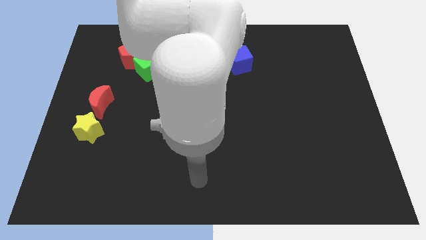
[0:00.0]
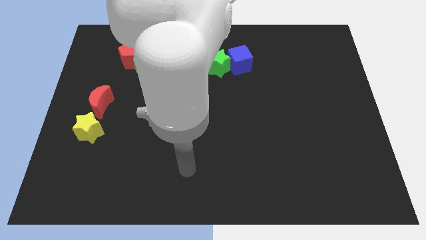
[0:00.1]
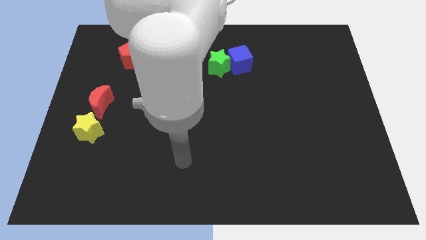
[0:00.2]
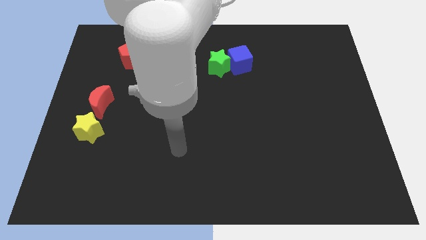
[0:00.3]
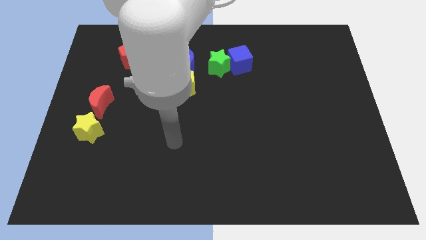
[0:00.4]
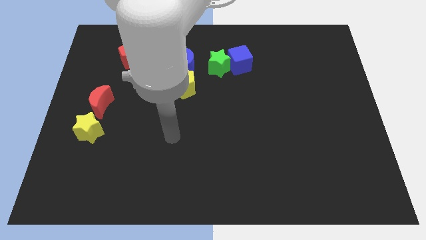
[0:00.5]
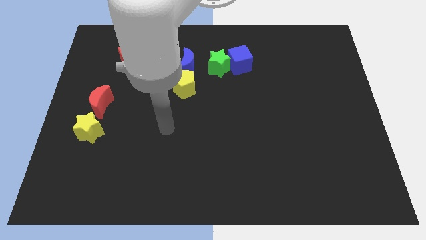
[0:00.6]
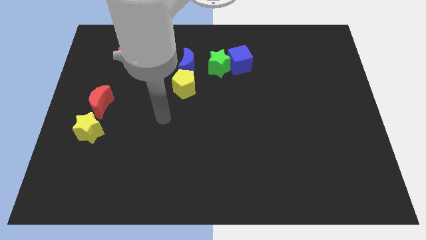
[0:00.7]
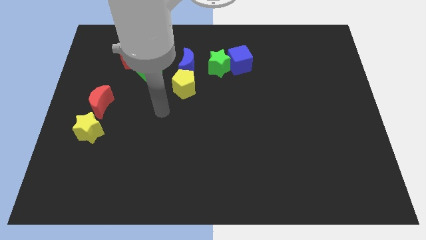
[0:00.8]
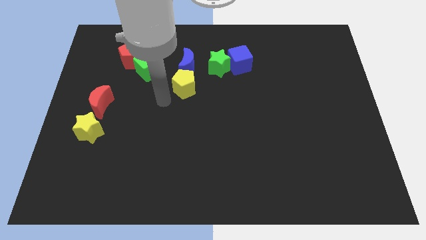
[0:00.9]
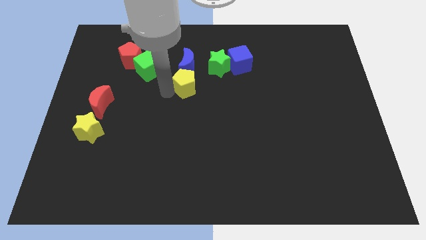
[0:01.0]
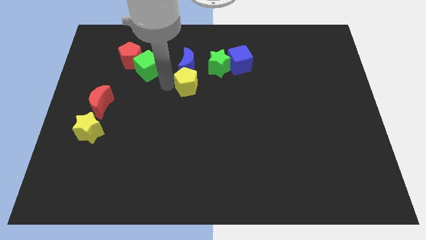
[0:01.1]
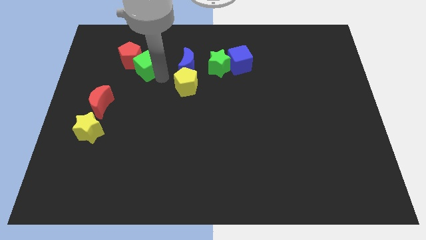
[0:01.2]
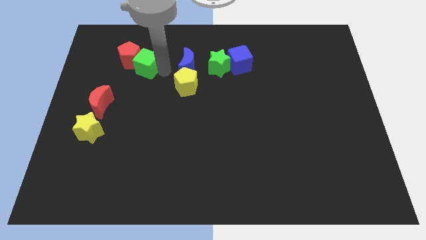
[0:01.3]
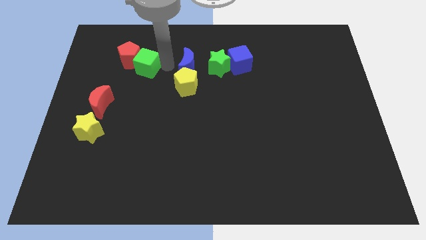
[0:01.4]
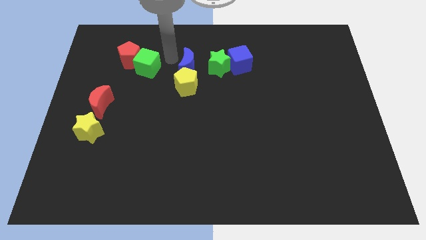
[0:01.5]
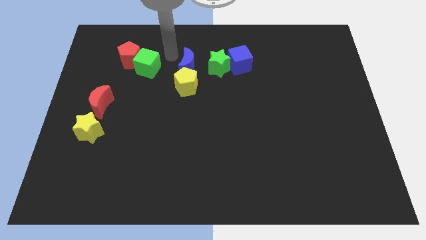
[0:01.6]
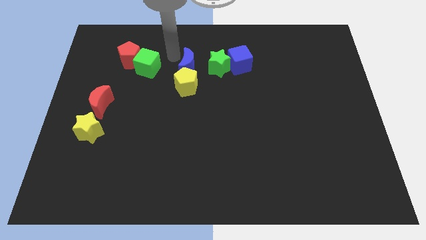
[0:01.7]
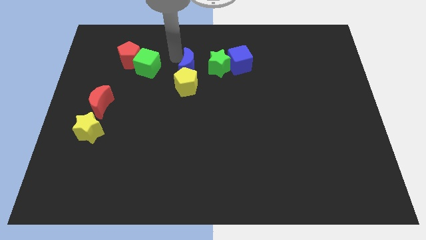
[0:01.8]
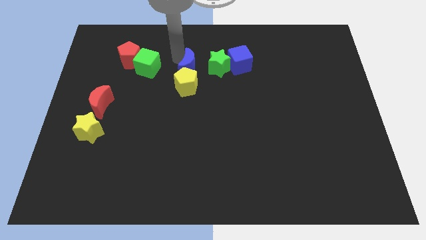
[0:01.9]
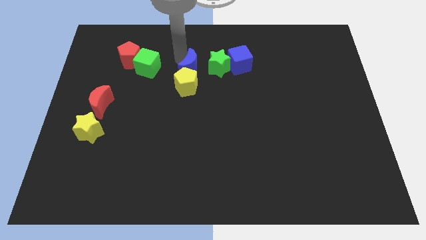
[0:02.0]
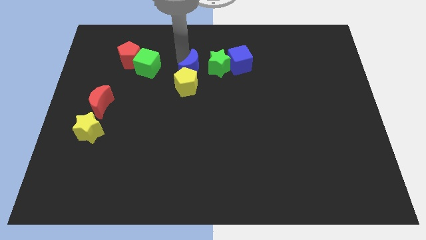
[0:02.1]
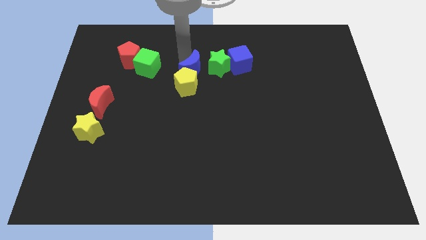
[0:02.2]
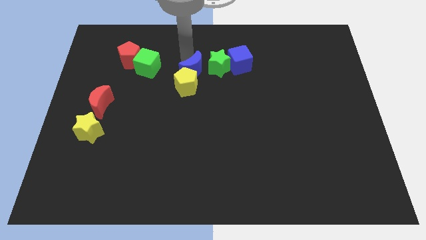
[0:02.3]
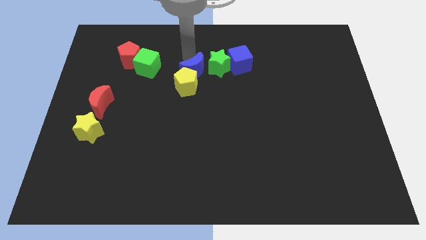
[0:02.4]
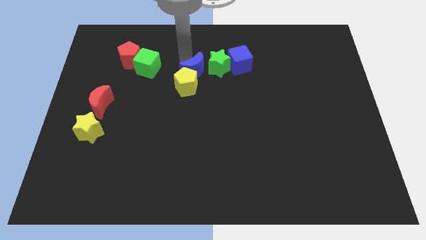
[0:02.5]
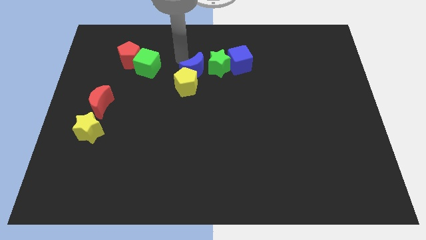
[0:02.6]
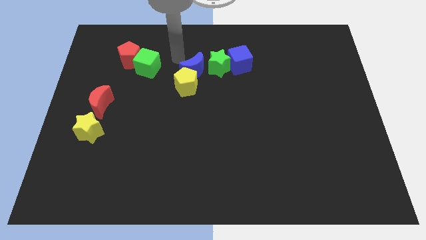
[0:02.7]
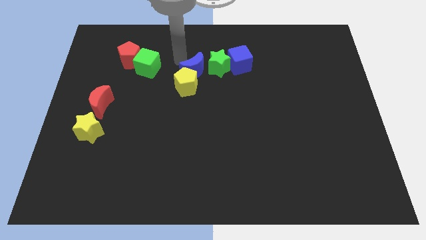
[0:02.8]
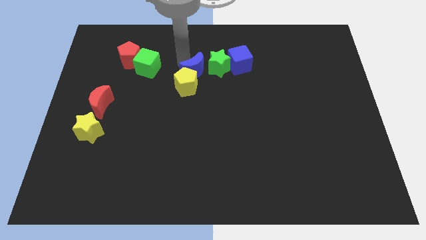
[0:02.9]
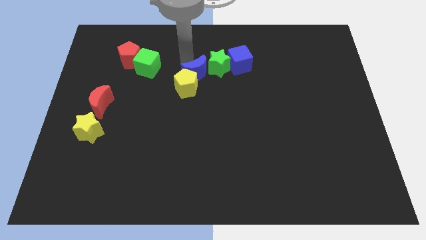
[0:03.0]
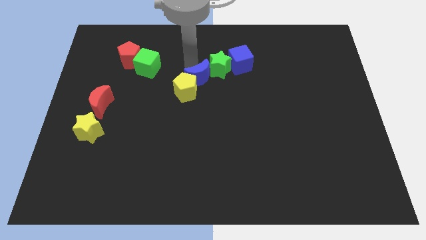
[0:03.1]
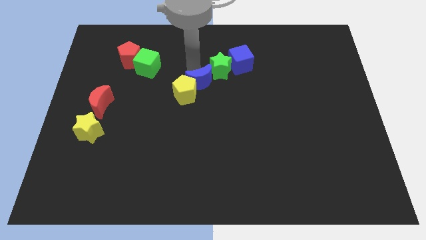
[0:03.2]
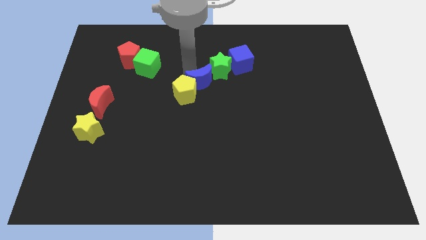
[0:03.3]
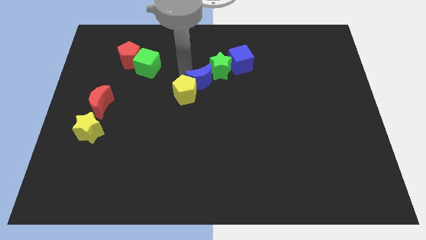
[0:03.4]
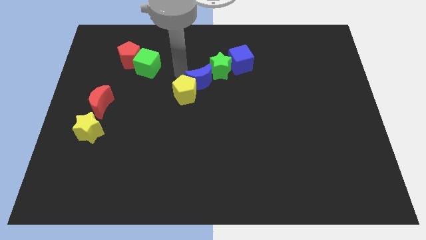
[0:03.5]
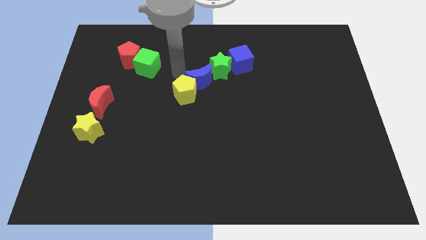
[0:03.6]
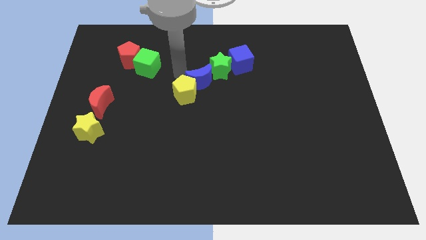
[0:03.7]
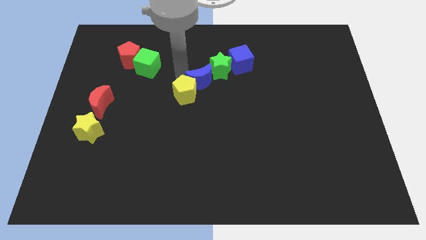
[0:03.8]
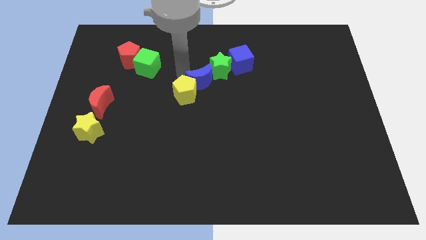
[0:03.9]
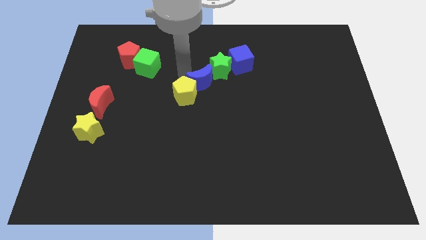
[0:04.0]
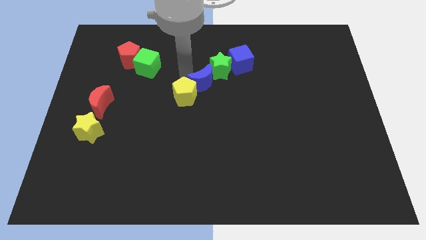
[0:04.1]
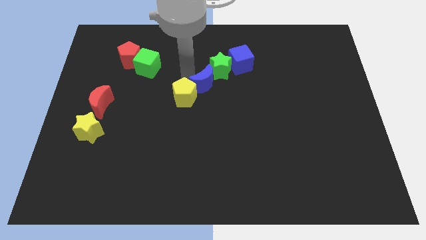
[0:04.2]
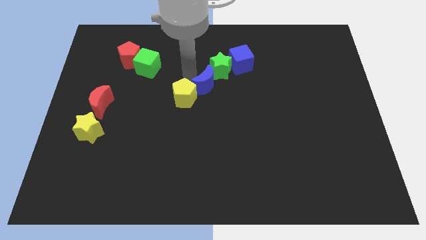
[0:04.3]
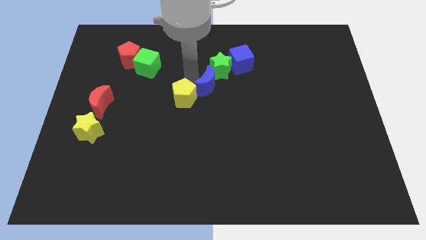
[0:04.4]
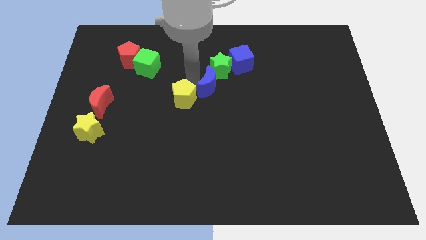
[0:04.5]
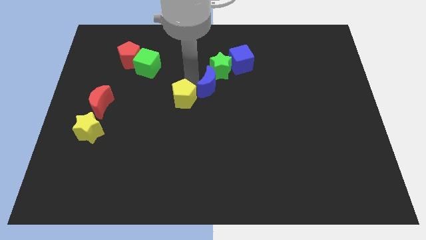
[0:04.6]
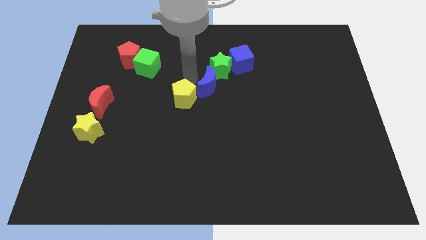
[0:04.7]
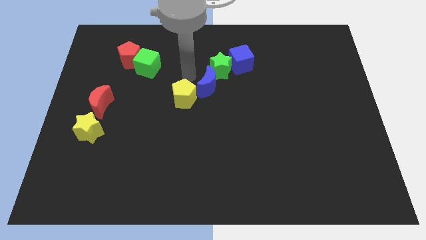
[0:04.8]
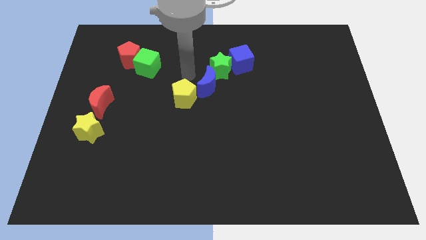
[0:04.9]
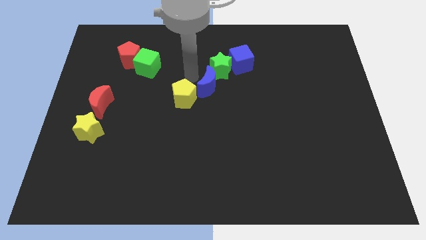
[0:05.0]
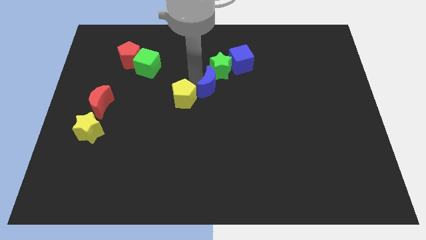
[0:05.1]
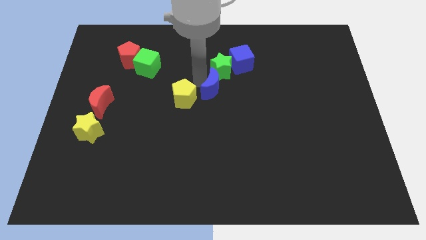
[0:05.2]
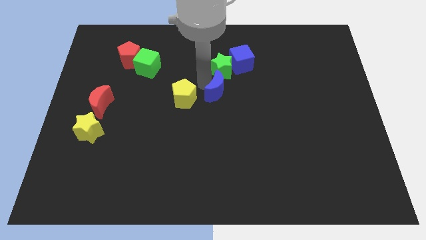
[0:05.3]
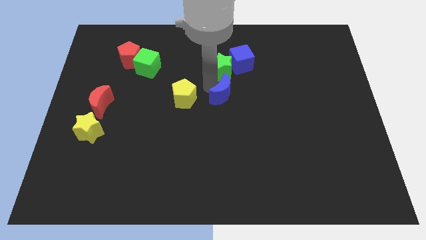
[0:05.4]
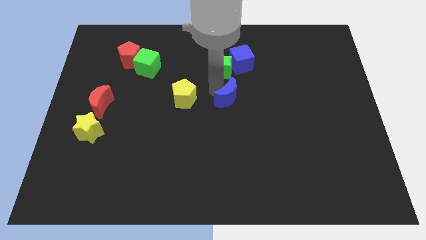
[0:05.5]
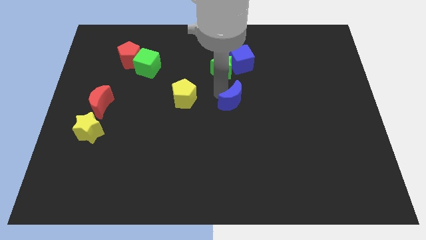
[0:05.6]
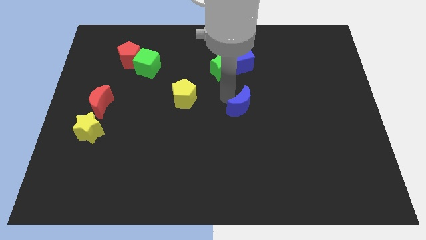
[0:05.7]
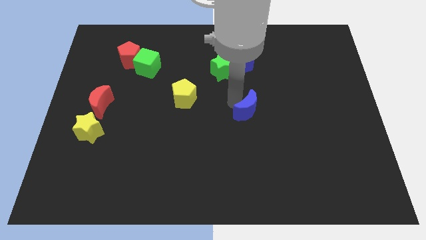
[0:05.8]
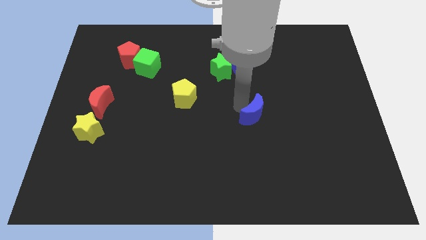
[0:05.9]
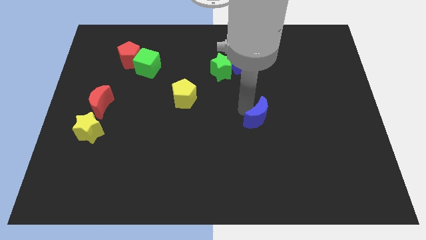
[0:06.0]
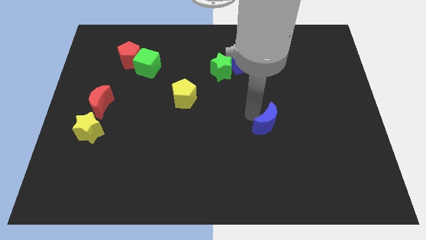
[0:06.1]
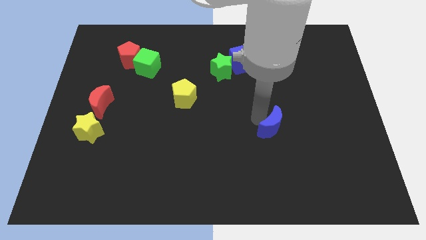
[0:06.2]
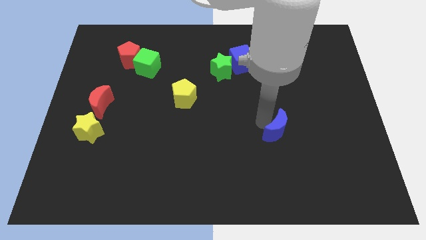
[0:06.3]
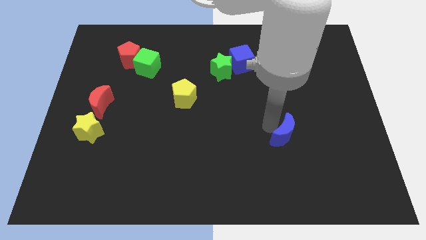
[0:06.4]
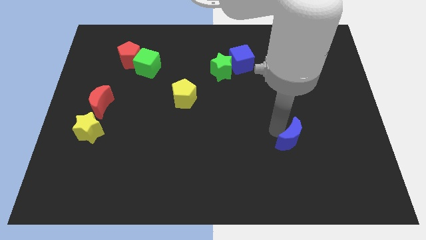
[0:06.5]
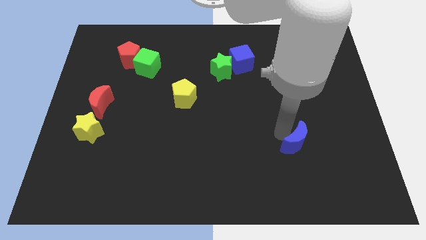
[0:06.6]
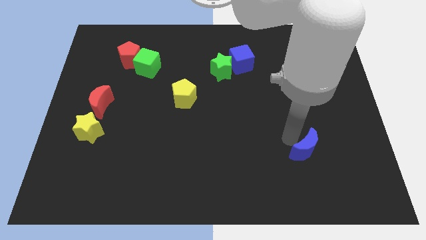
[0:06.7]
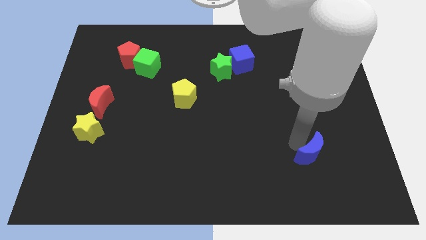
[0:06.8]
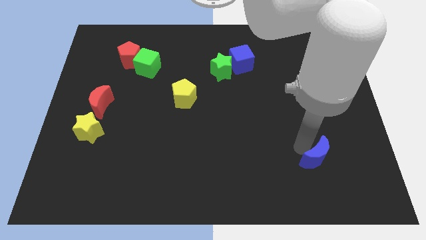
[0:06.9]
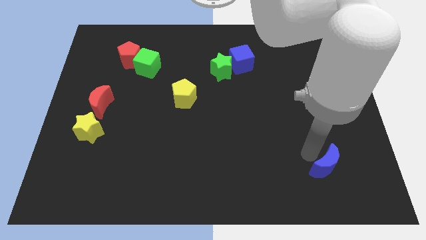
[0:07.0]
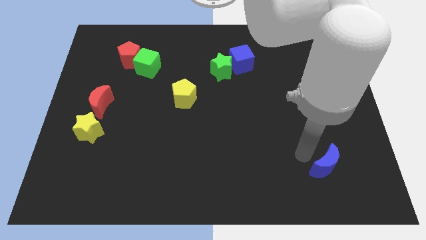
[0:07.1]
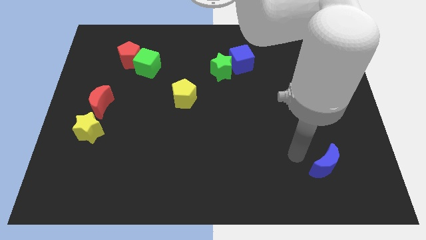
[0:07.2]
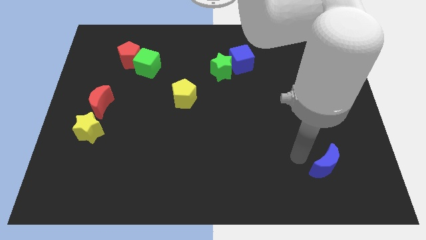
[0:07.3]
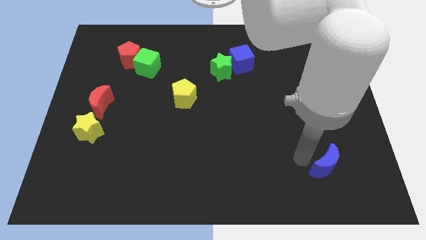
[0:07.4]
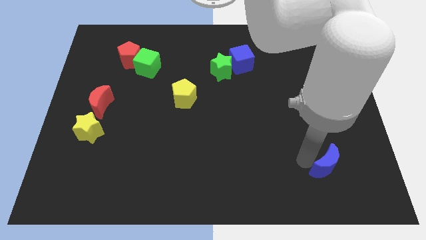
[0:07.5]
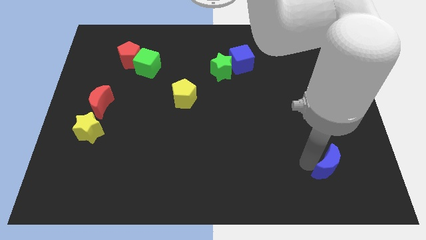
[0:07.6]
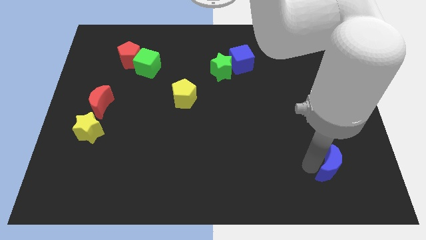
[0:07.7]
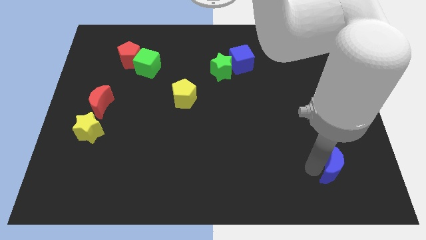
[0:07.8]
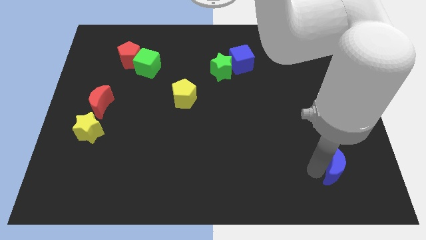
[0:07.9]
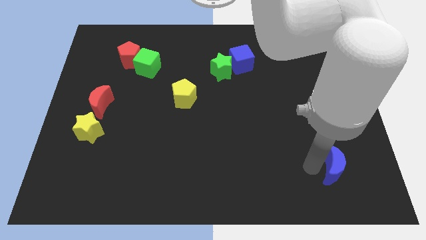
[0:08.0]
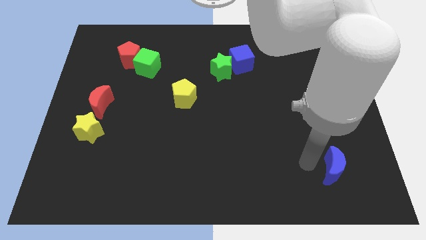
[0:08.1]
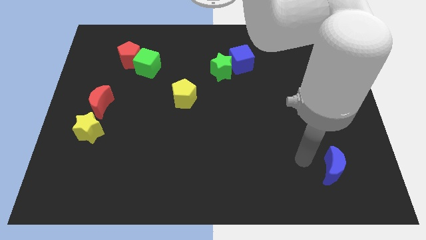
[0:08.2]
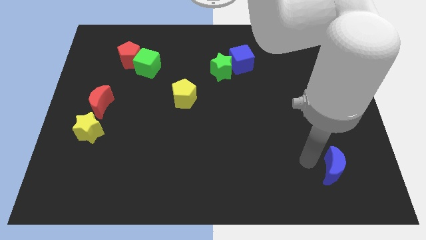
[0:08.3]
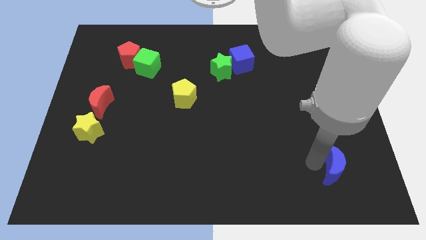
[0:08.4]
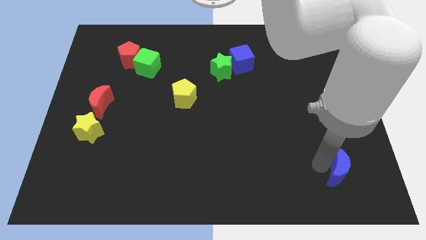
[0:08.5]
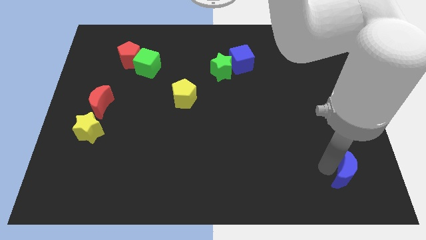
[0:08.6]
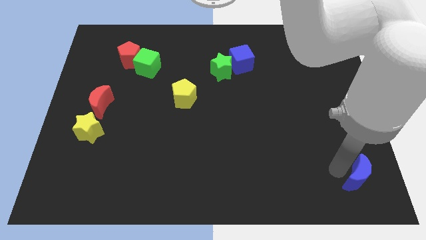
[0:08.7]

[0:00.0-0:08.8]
push the blue moon to the bottom right of the board
